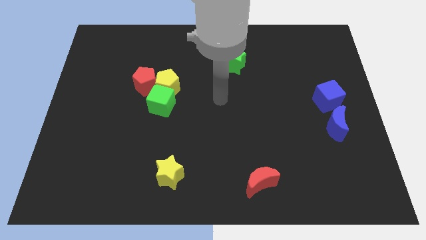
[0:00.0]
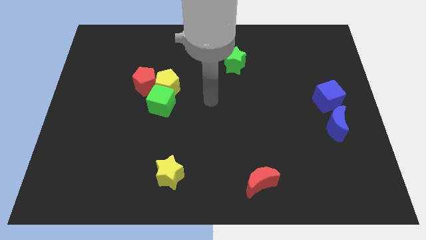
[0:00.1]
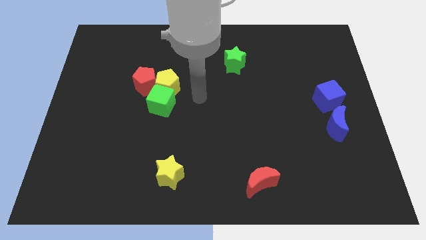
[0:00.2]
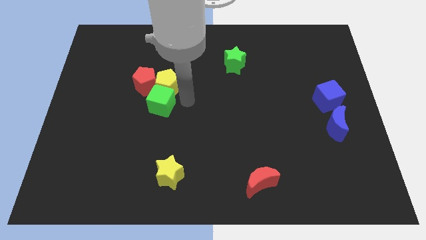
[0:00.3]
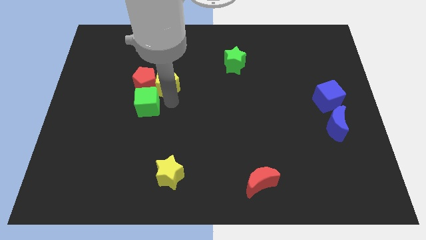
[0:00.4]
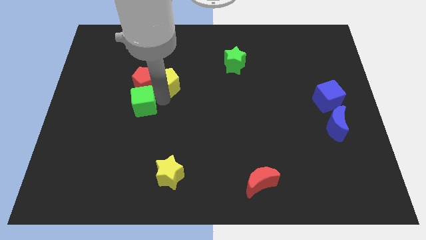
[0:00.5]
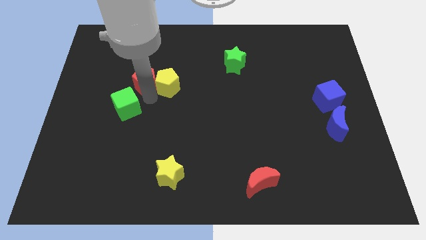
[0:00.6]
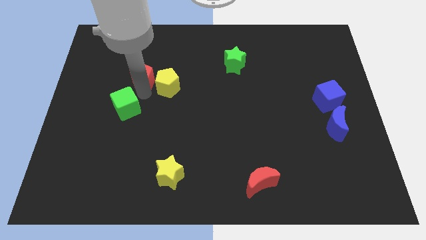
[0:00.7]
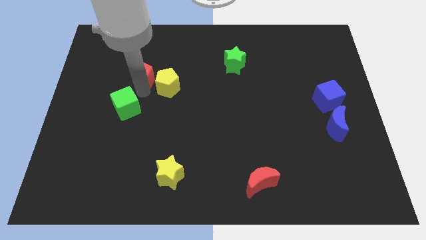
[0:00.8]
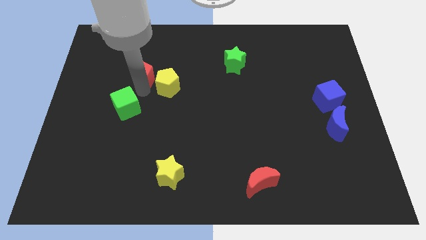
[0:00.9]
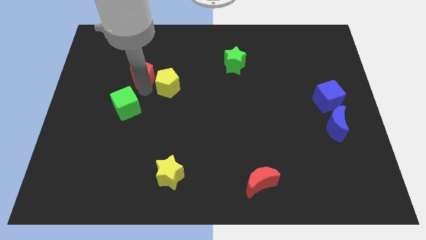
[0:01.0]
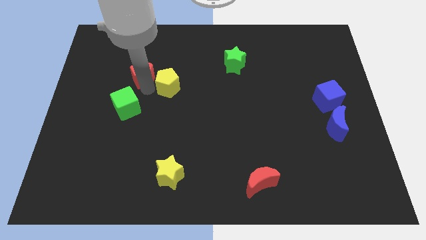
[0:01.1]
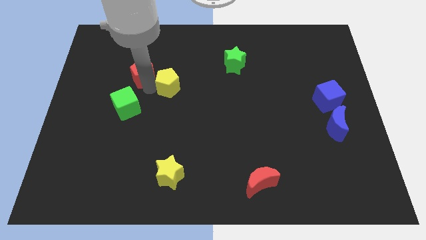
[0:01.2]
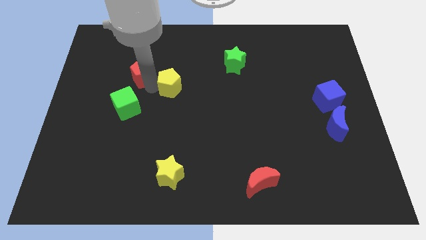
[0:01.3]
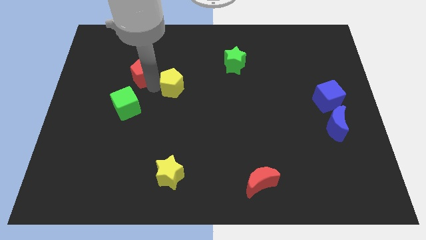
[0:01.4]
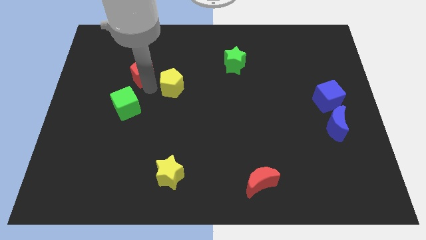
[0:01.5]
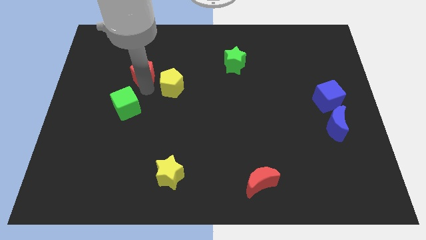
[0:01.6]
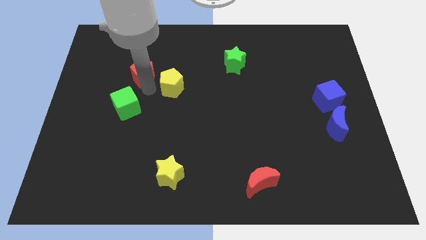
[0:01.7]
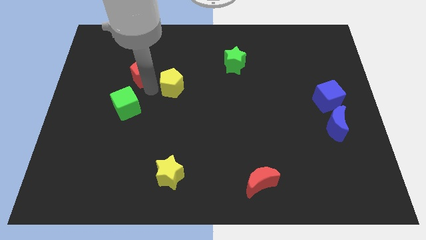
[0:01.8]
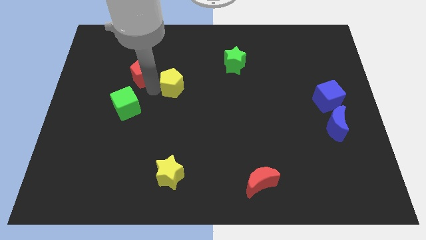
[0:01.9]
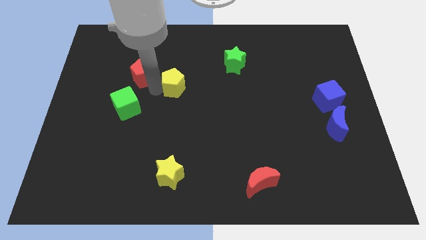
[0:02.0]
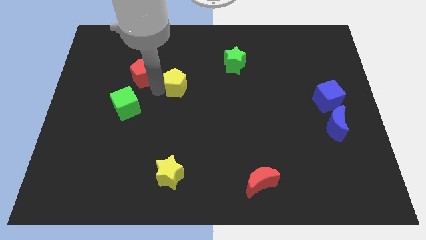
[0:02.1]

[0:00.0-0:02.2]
move the yellow pentagon away from the green cube and red pentagon

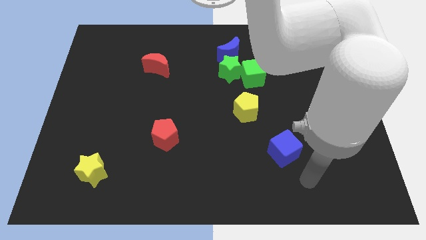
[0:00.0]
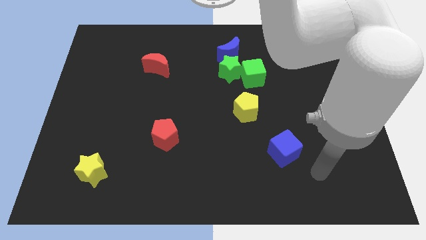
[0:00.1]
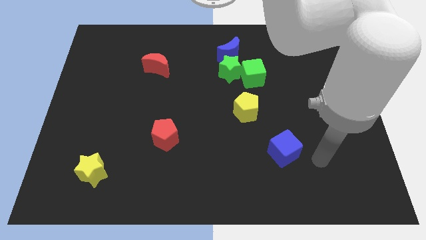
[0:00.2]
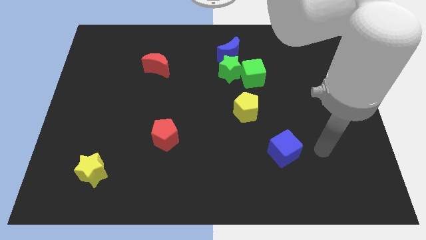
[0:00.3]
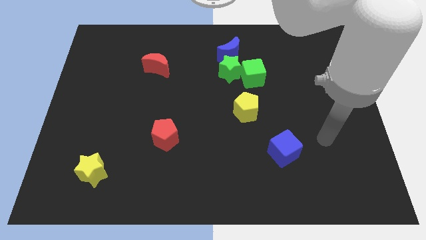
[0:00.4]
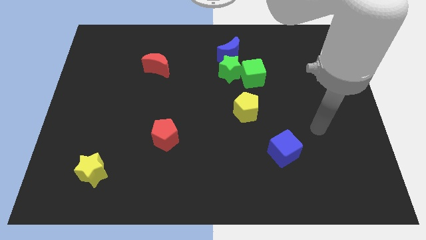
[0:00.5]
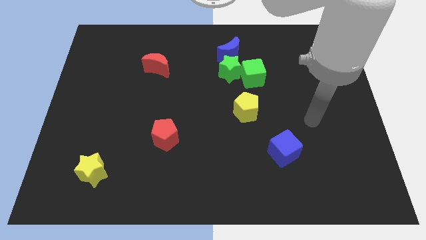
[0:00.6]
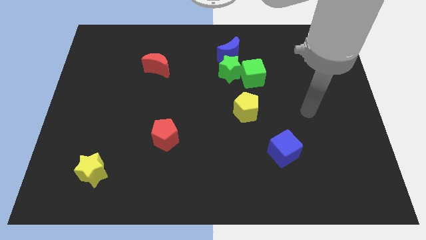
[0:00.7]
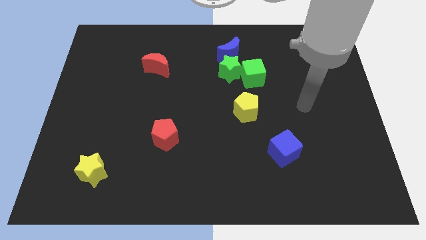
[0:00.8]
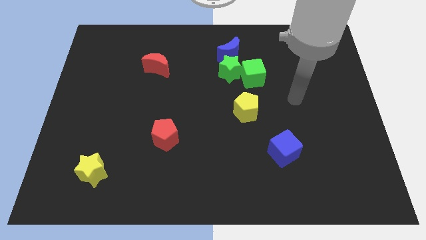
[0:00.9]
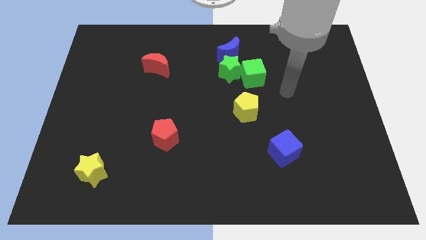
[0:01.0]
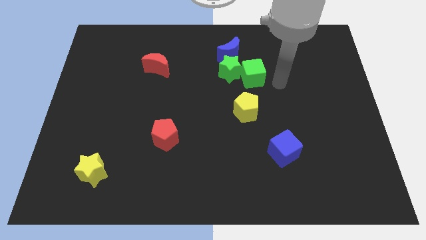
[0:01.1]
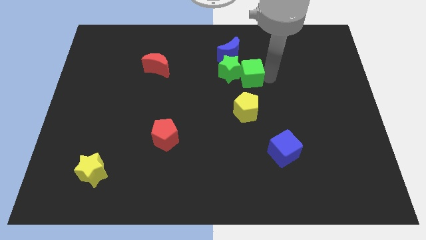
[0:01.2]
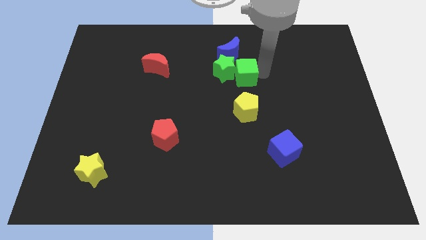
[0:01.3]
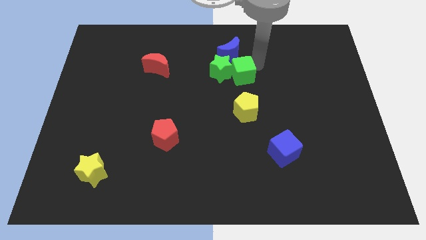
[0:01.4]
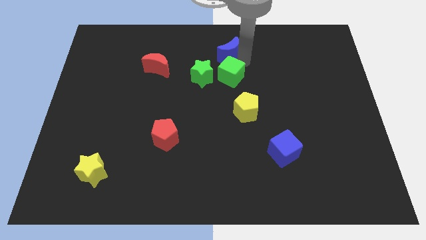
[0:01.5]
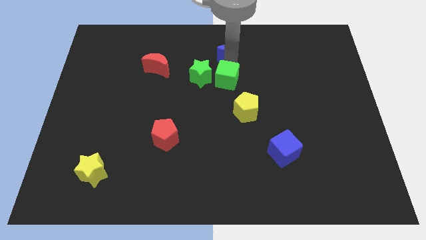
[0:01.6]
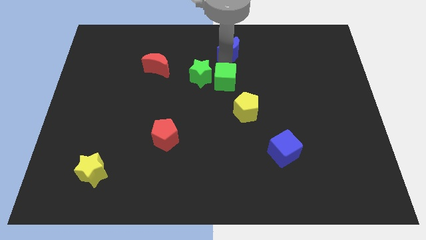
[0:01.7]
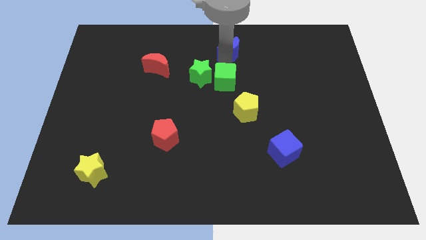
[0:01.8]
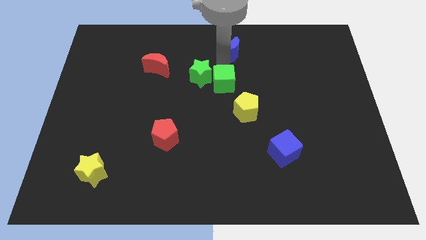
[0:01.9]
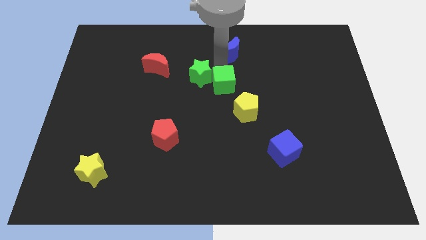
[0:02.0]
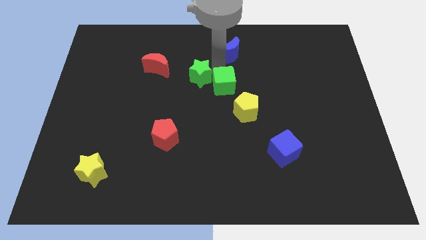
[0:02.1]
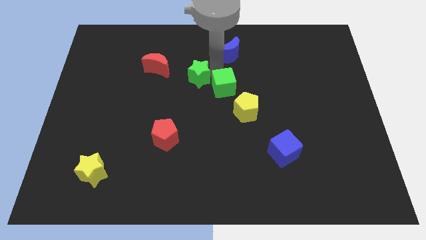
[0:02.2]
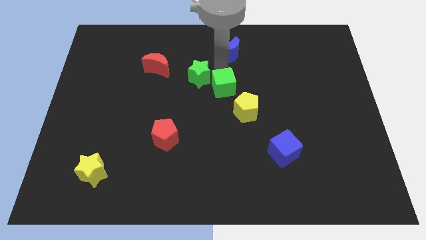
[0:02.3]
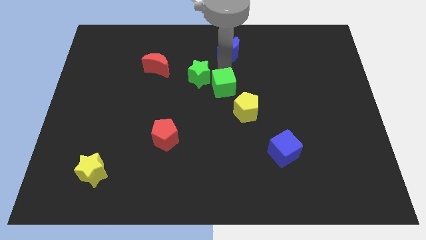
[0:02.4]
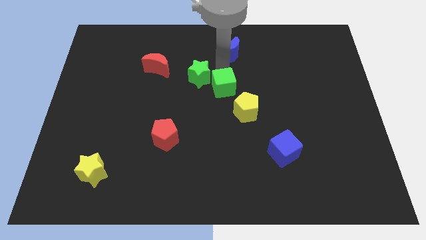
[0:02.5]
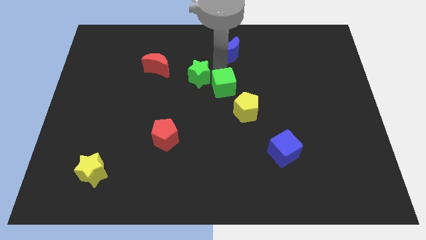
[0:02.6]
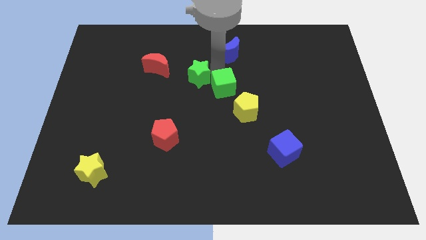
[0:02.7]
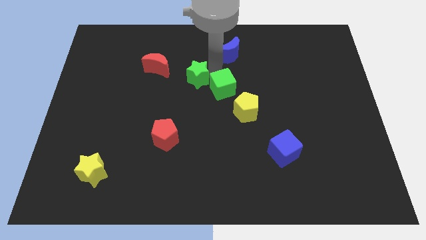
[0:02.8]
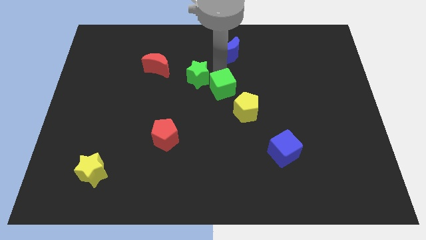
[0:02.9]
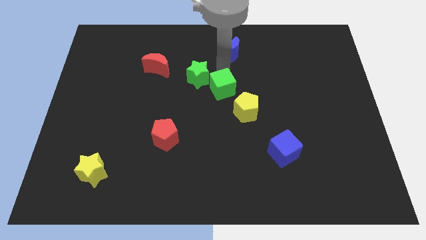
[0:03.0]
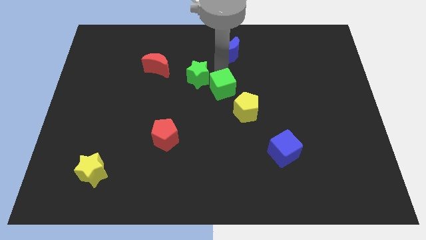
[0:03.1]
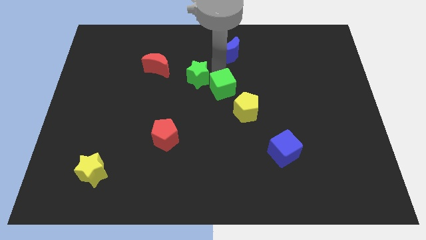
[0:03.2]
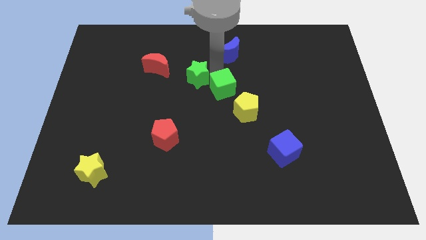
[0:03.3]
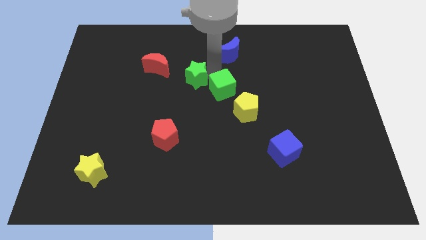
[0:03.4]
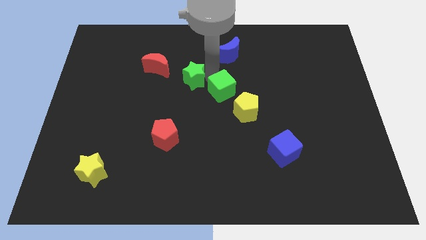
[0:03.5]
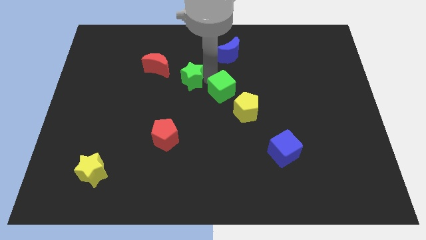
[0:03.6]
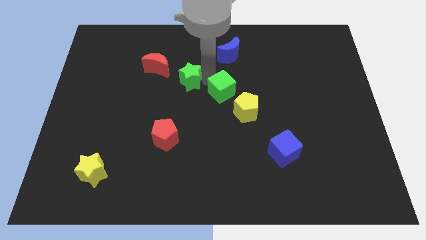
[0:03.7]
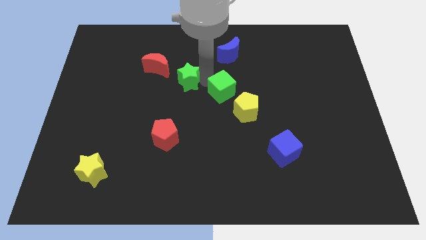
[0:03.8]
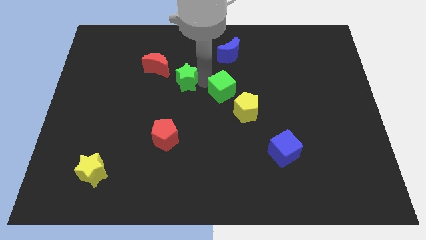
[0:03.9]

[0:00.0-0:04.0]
move the green star away from the green cube and blue moon

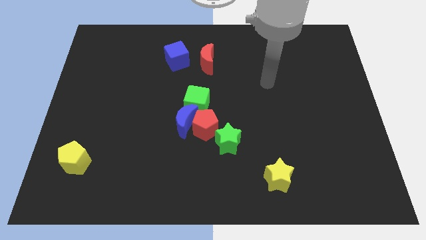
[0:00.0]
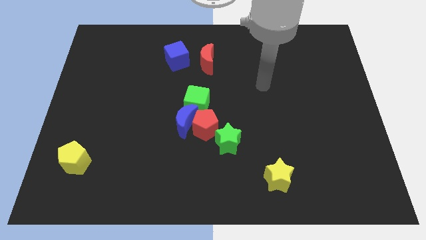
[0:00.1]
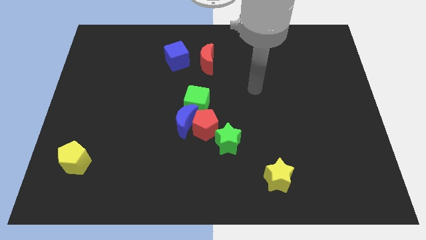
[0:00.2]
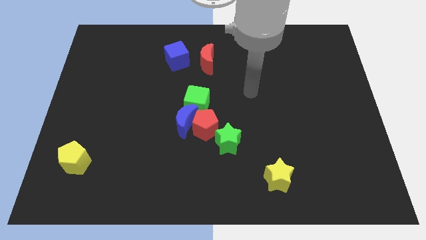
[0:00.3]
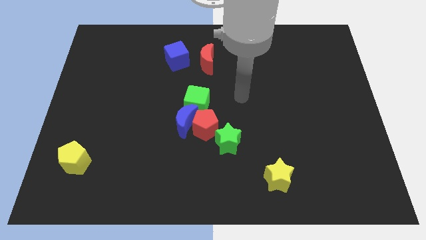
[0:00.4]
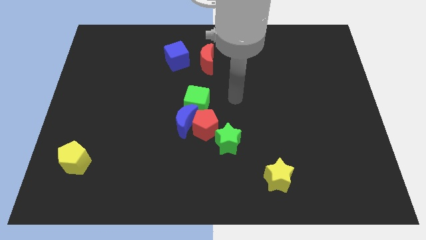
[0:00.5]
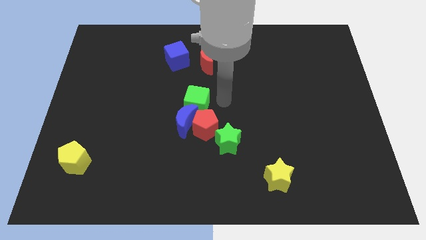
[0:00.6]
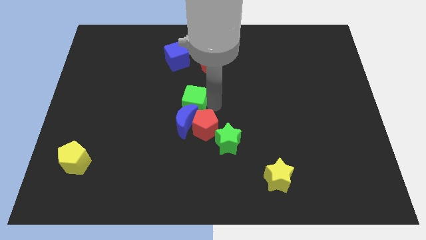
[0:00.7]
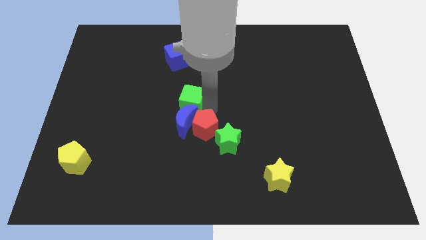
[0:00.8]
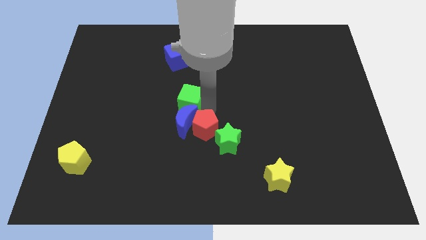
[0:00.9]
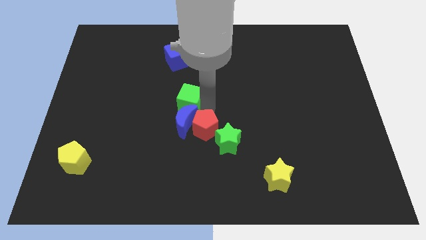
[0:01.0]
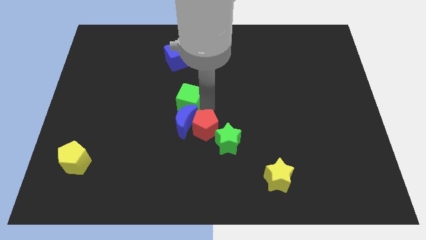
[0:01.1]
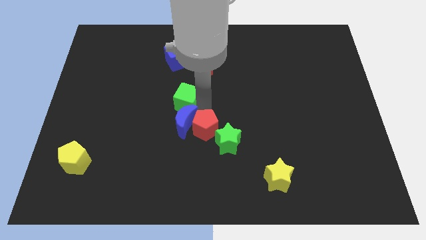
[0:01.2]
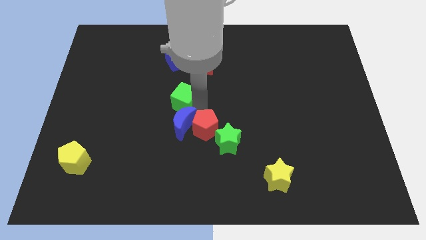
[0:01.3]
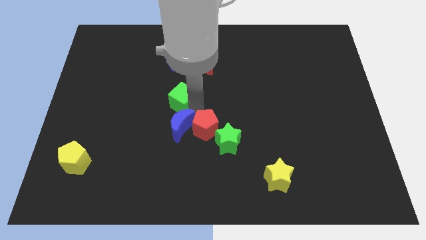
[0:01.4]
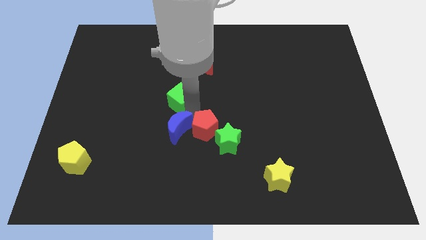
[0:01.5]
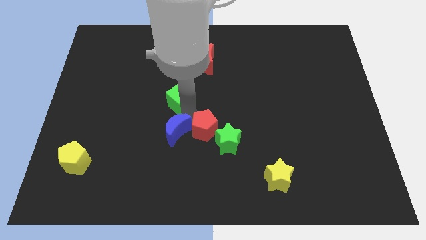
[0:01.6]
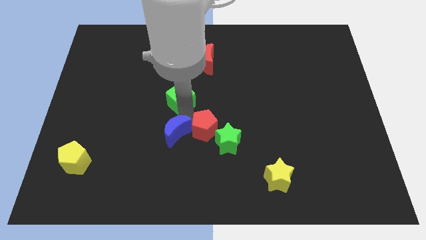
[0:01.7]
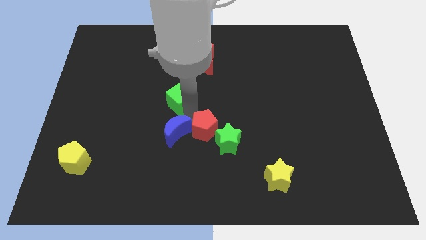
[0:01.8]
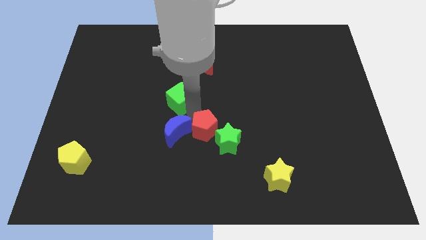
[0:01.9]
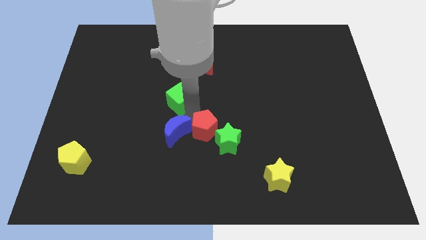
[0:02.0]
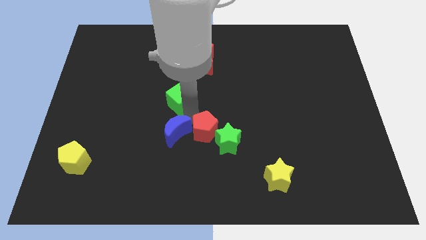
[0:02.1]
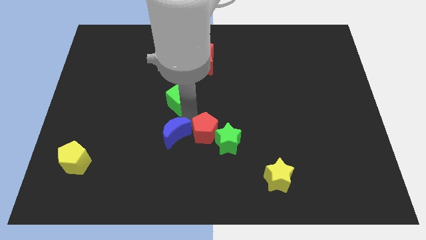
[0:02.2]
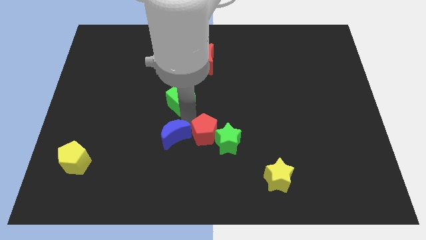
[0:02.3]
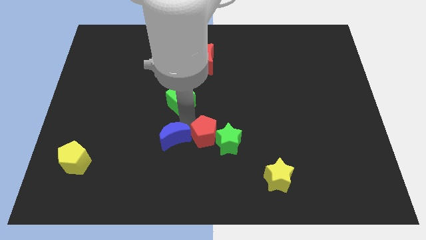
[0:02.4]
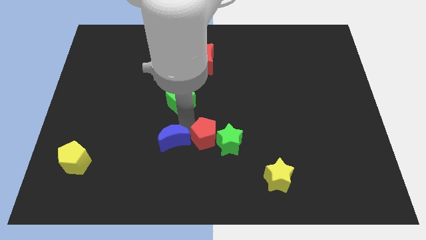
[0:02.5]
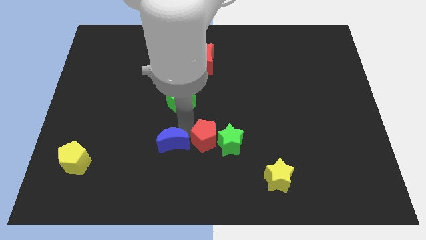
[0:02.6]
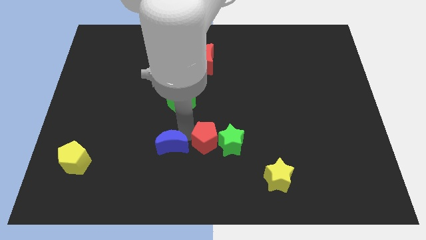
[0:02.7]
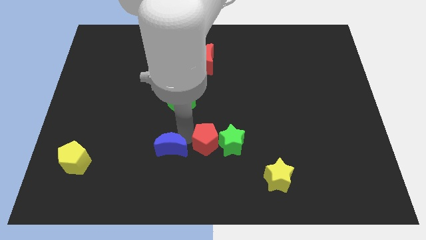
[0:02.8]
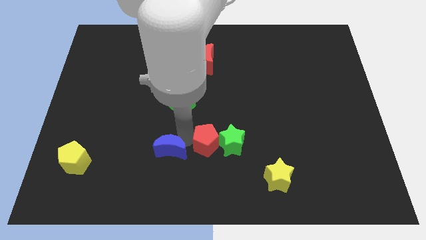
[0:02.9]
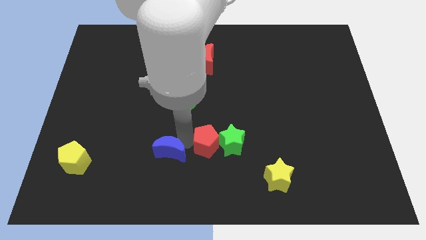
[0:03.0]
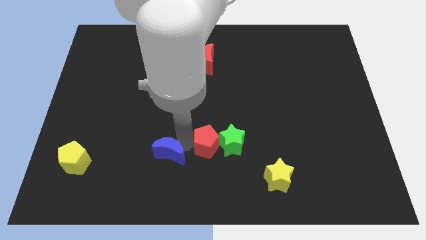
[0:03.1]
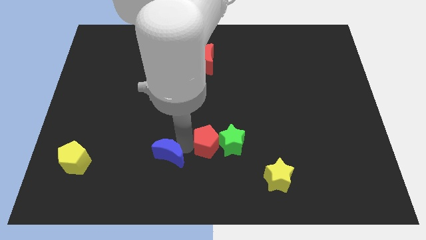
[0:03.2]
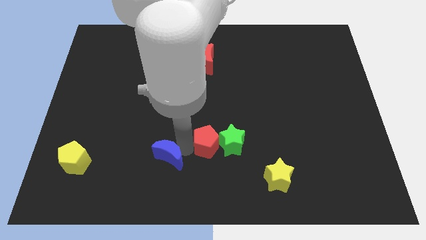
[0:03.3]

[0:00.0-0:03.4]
pull the blue moon apart from the red pentagon and green cube
